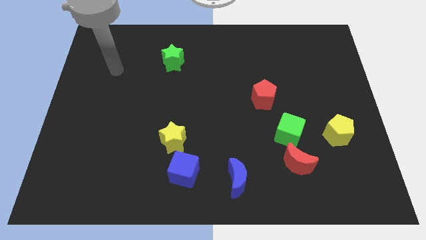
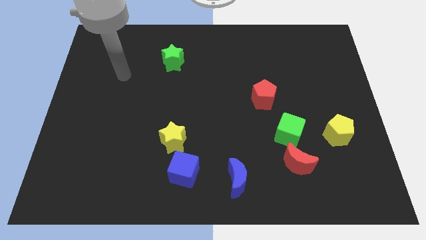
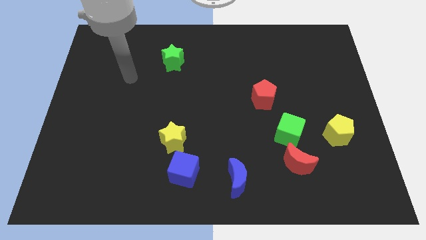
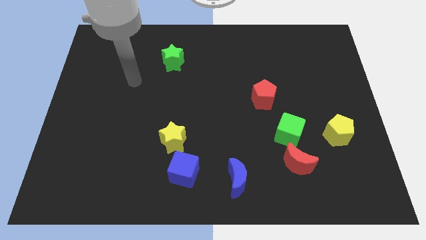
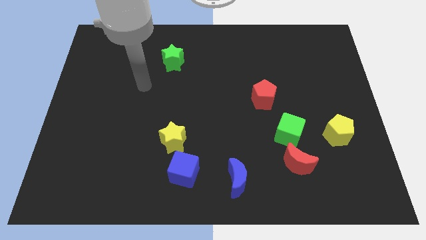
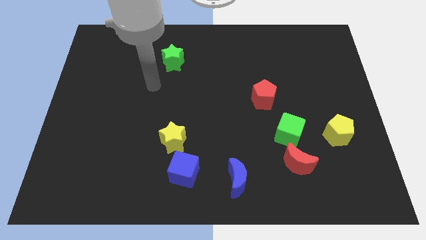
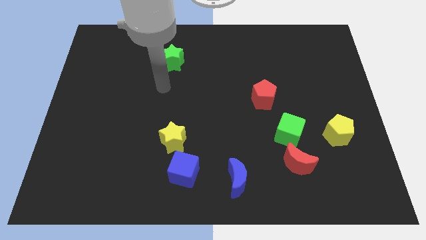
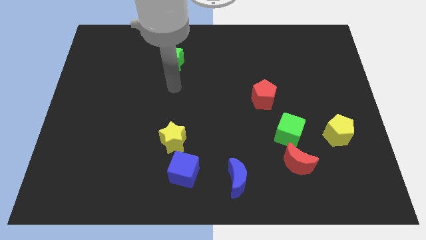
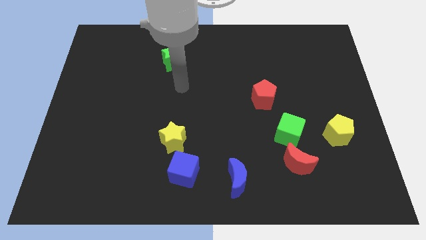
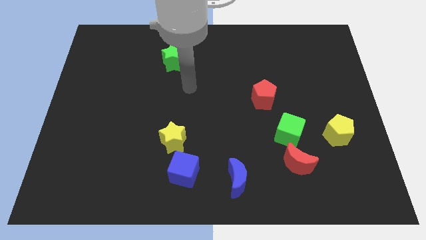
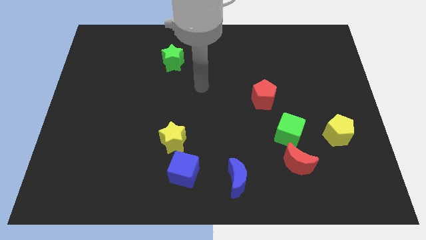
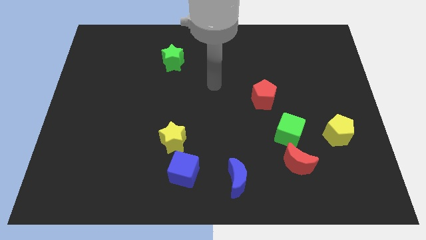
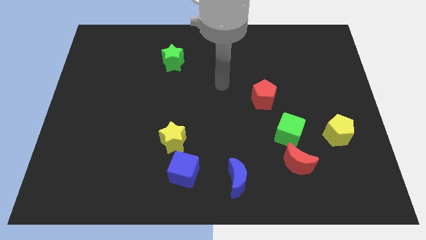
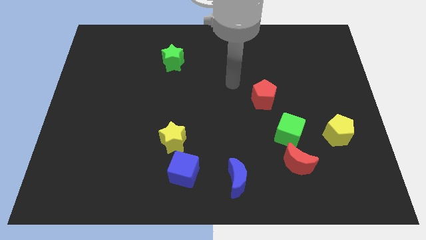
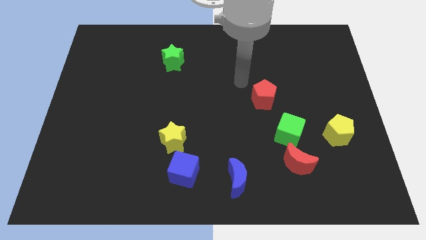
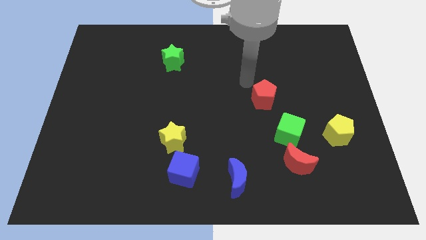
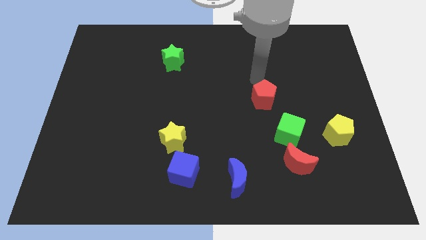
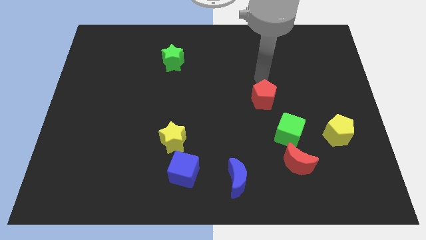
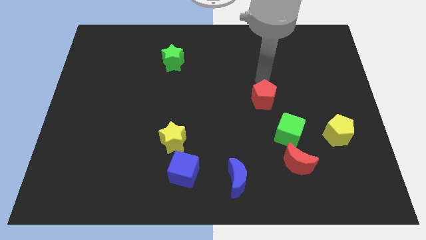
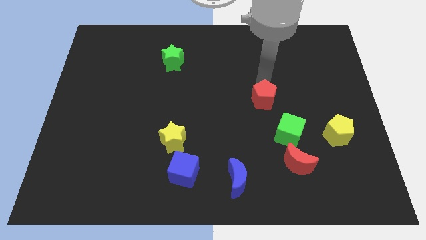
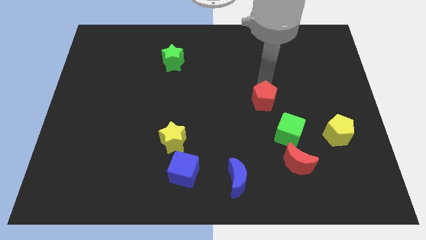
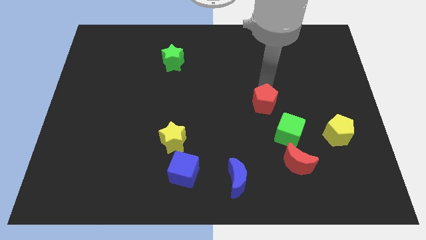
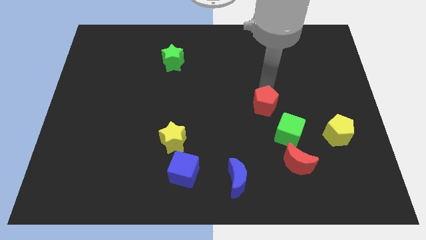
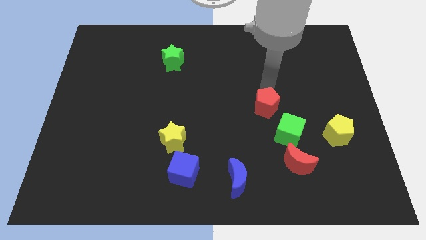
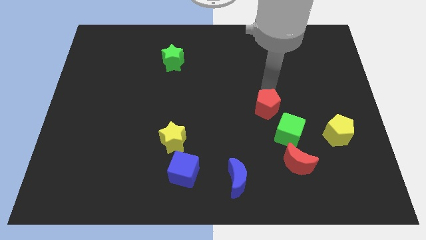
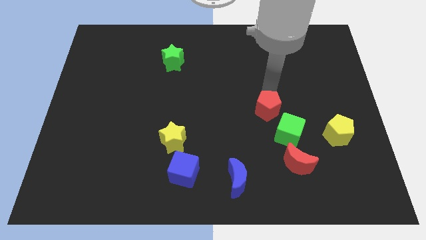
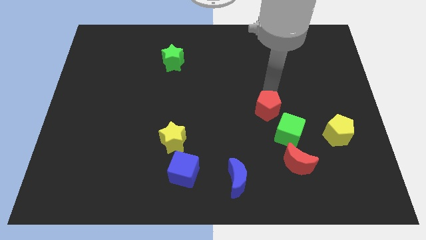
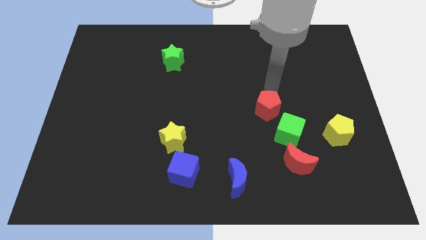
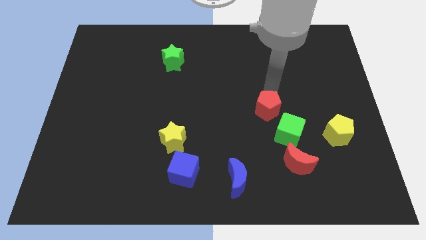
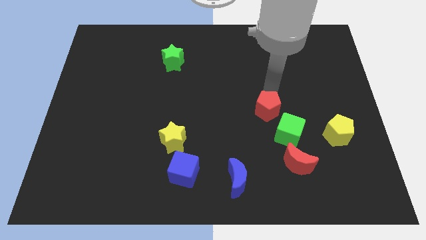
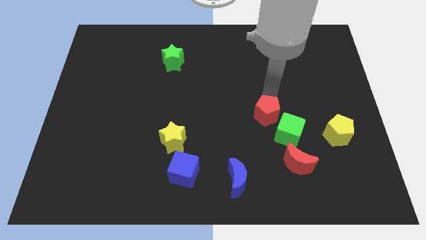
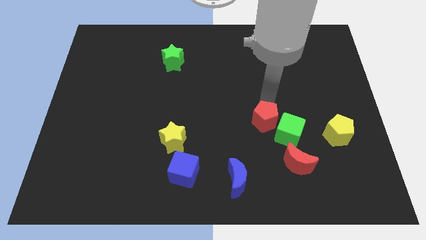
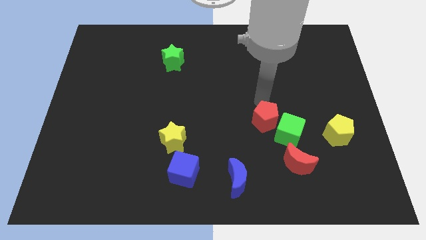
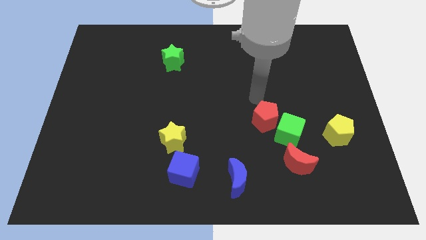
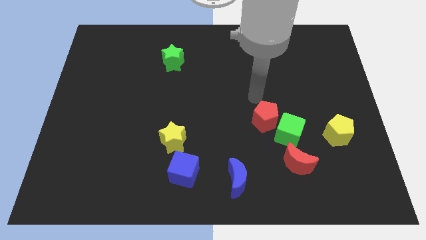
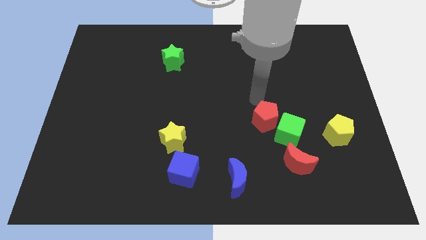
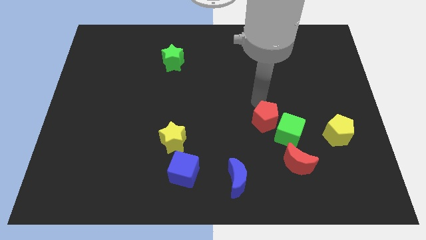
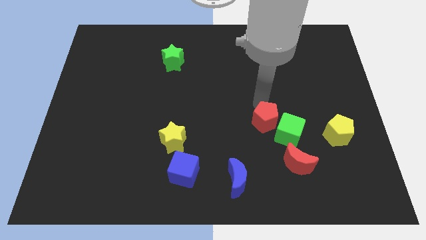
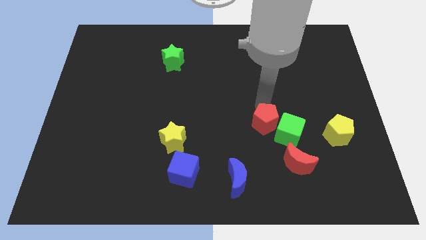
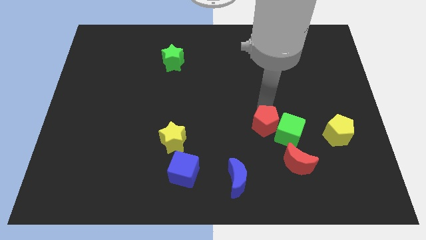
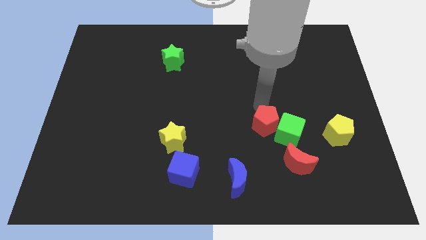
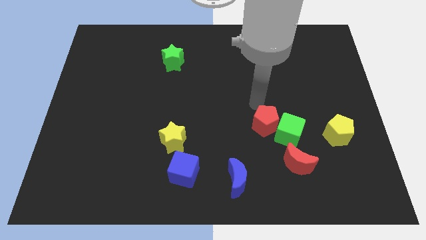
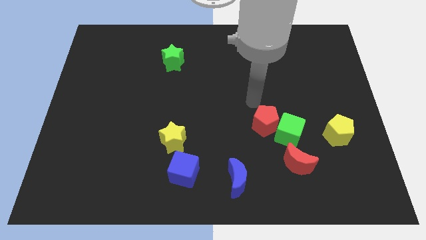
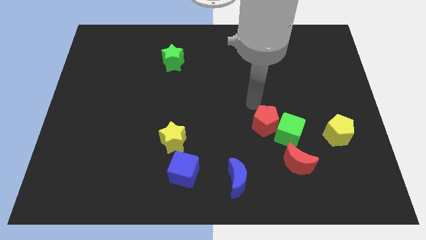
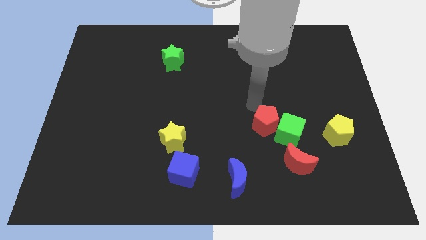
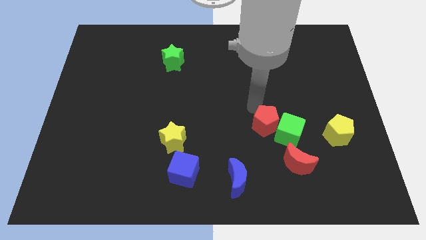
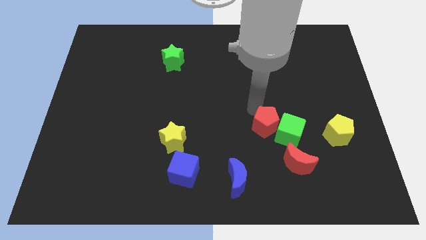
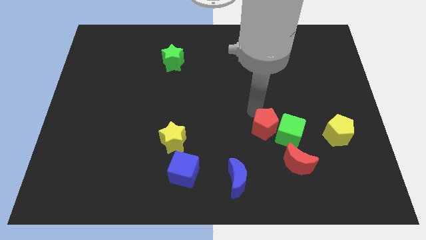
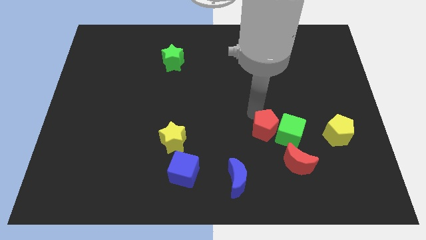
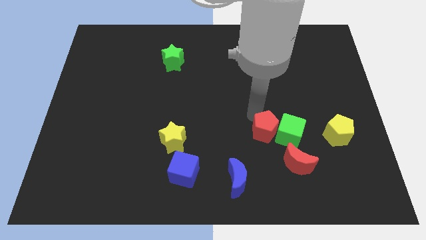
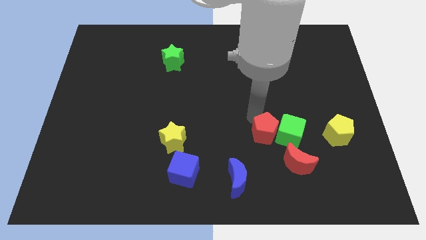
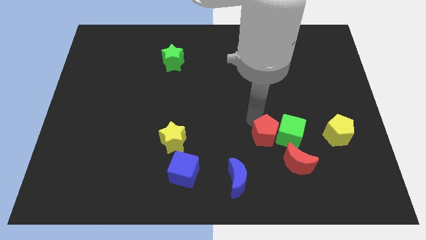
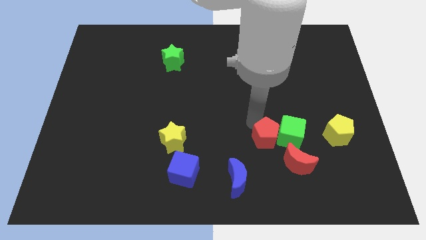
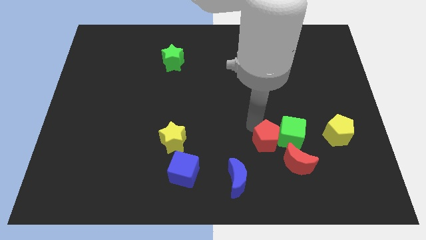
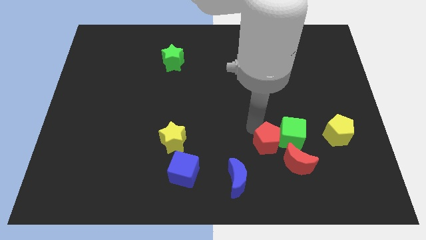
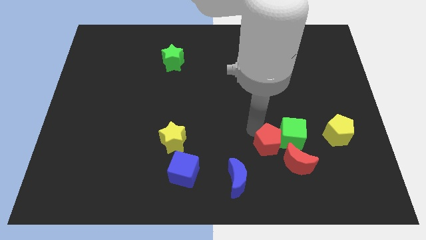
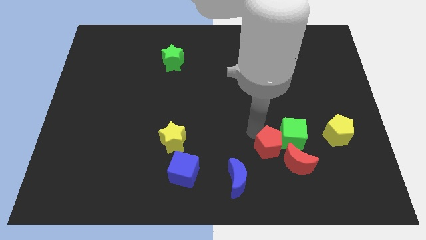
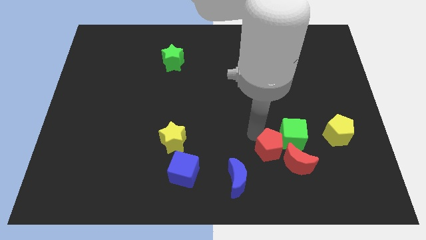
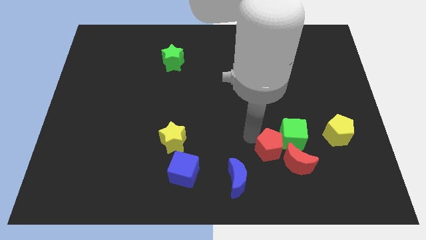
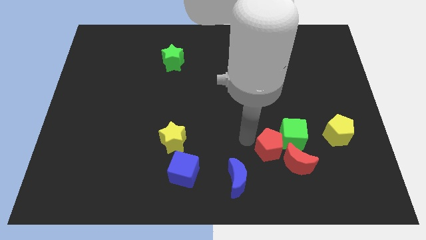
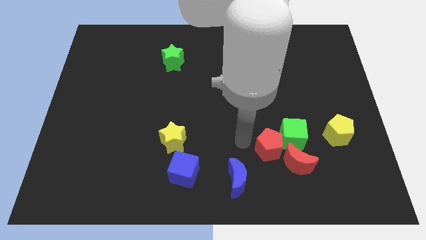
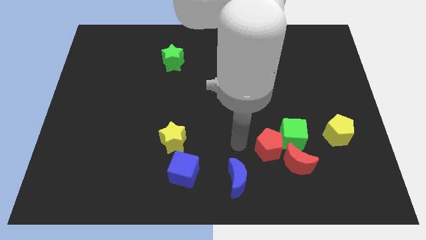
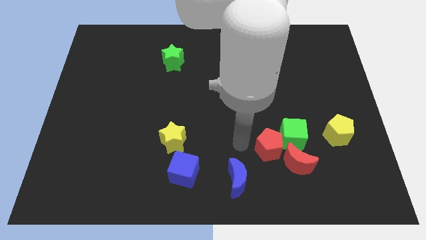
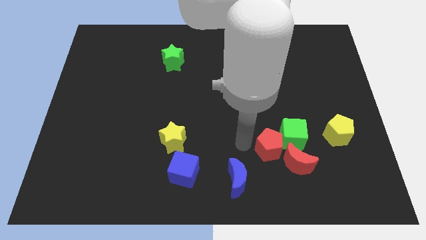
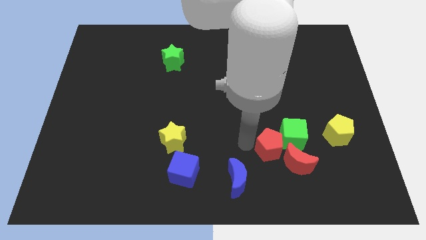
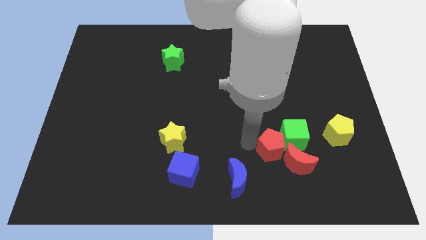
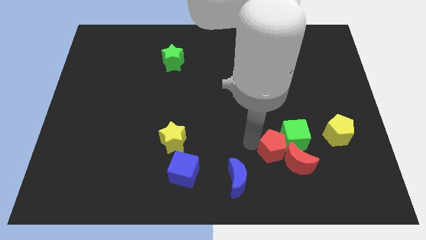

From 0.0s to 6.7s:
move the red pentagon next to the red moon

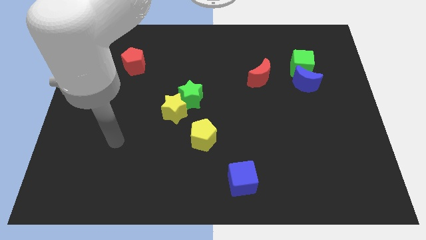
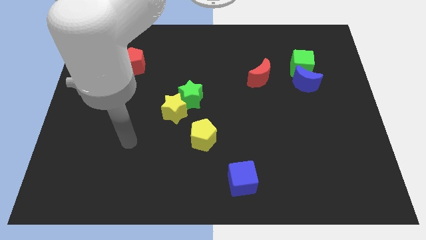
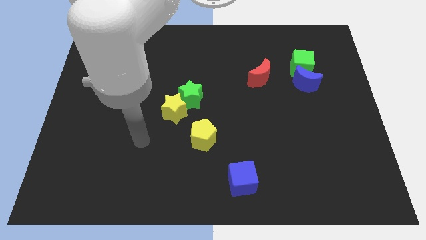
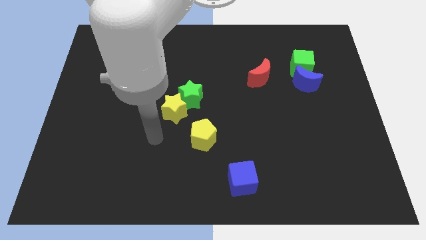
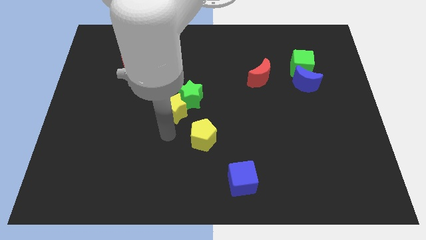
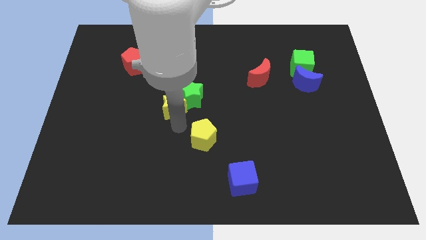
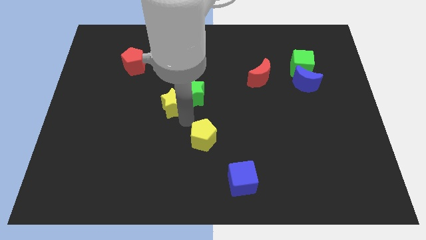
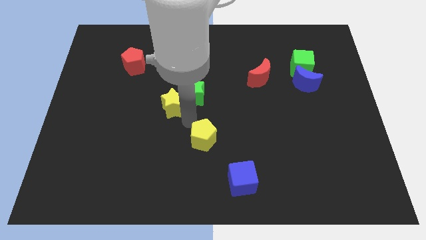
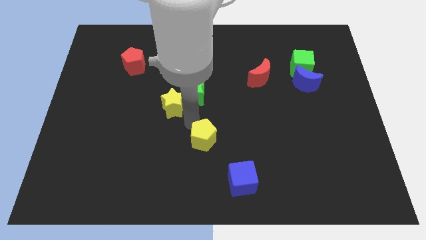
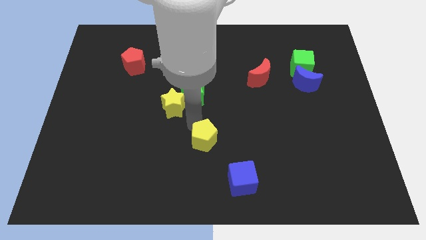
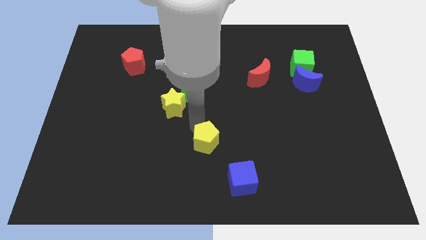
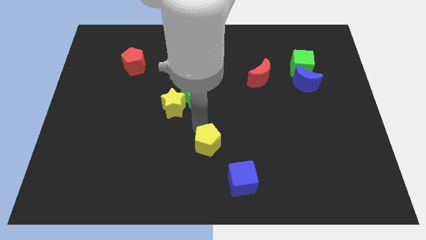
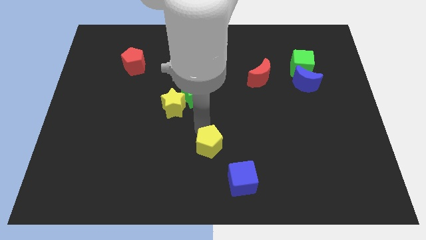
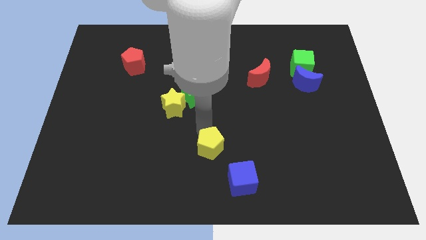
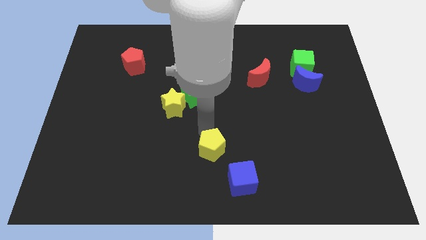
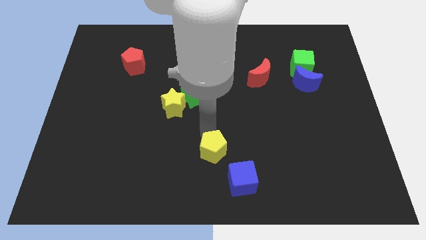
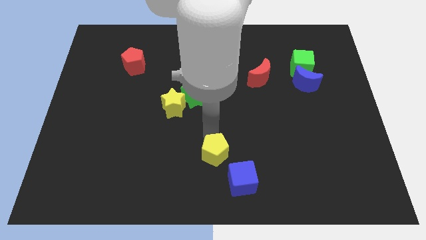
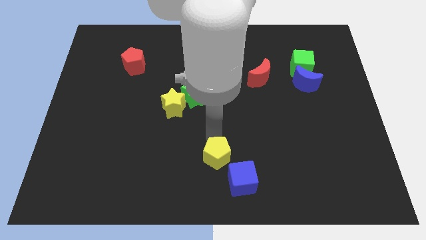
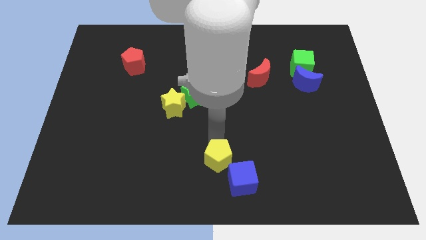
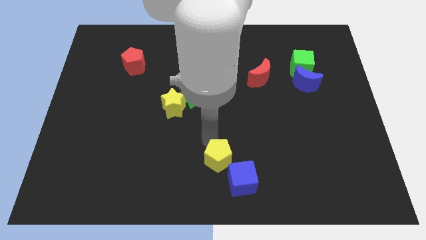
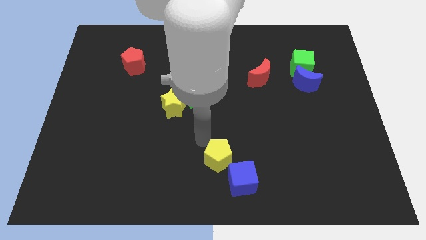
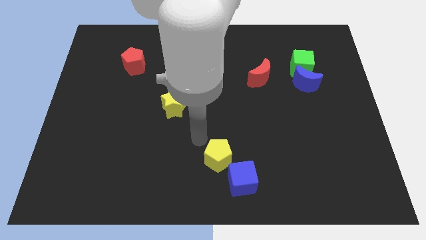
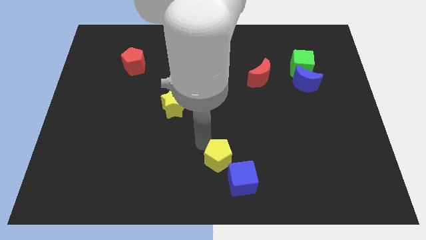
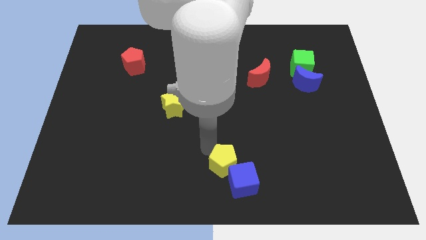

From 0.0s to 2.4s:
put the yellow pentagon next to the blue cube
